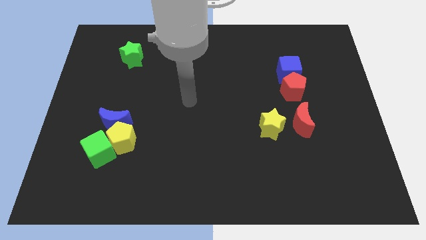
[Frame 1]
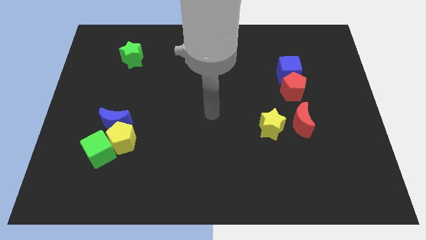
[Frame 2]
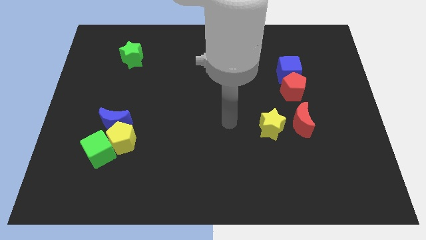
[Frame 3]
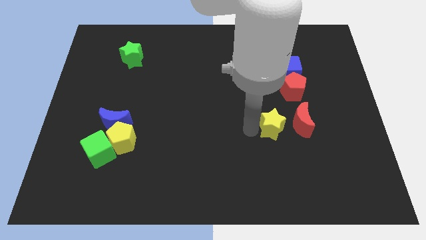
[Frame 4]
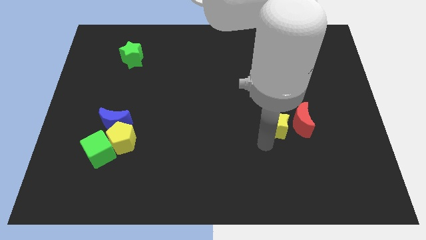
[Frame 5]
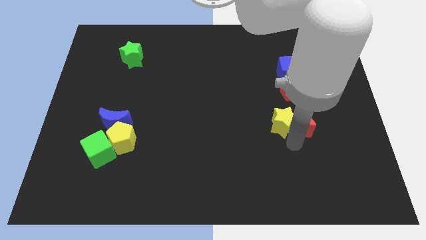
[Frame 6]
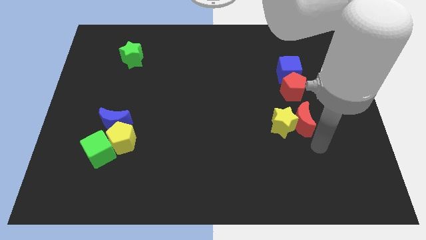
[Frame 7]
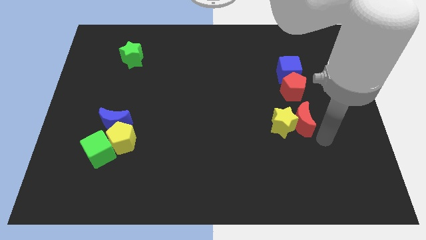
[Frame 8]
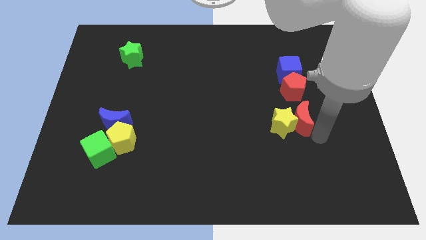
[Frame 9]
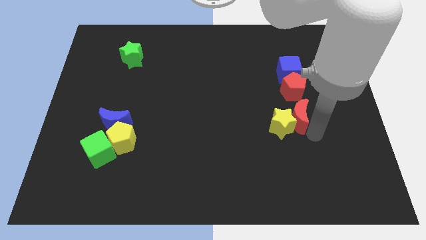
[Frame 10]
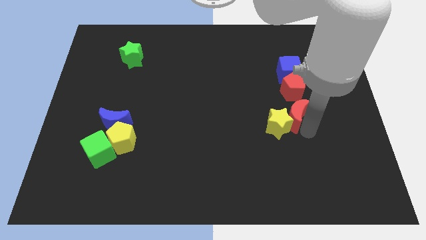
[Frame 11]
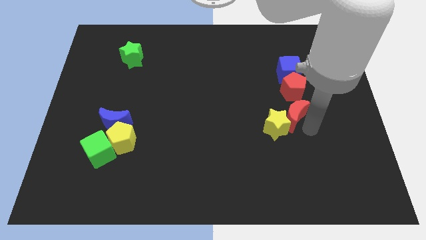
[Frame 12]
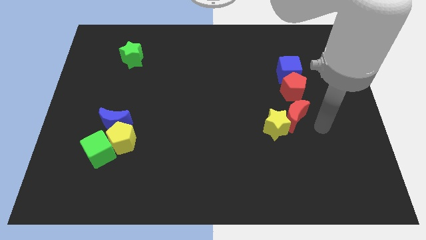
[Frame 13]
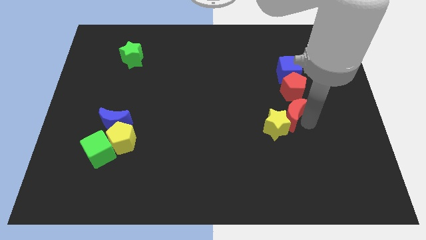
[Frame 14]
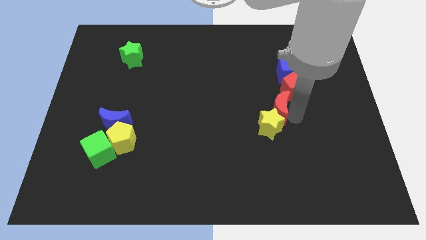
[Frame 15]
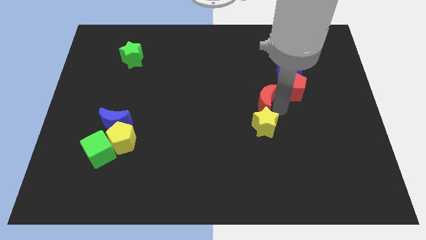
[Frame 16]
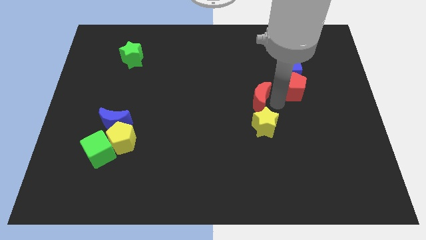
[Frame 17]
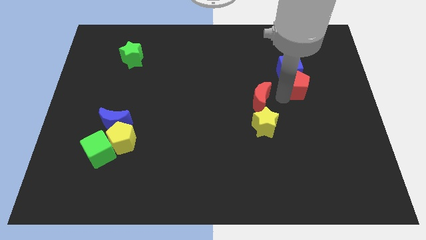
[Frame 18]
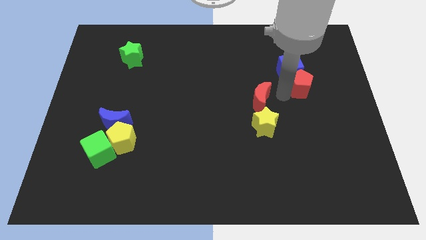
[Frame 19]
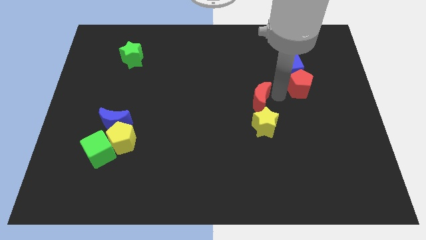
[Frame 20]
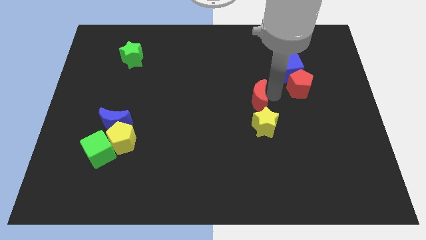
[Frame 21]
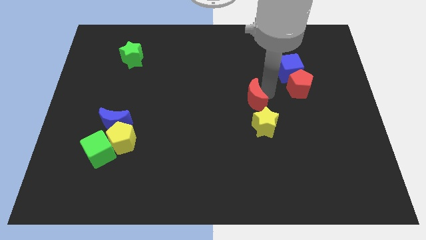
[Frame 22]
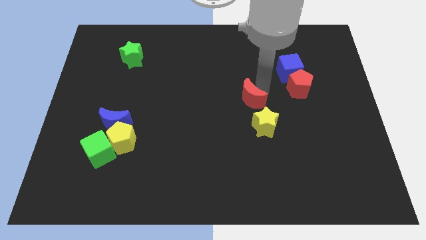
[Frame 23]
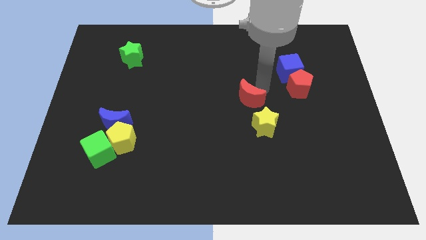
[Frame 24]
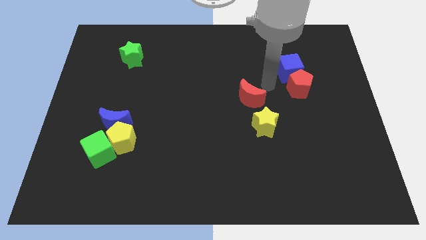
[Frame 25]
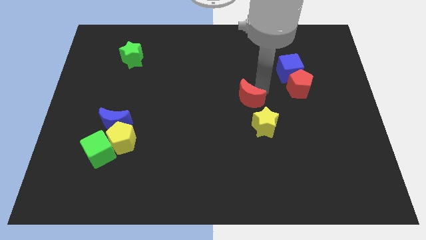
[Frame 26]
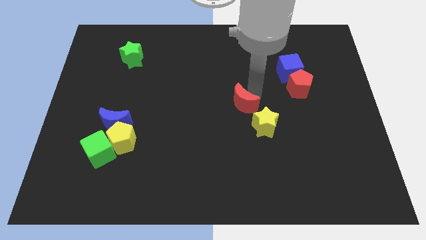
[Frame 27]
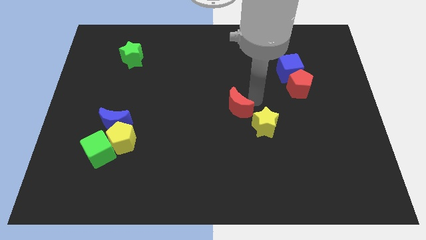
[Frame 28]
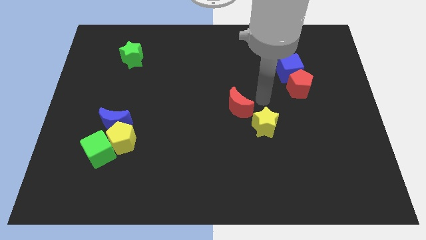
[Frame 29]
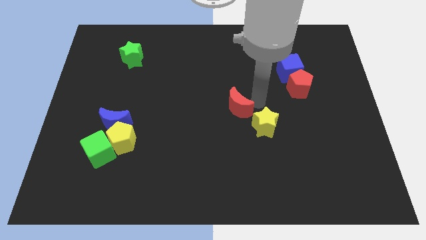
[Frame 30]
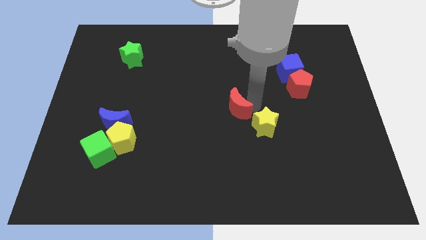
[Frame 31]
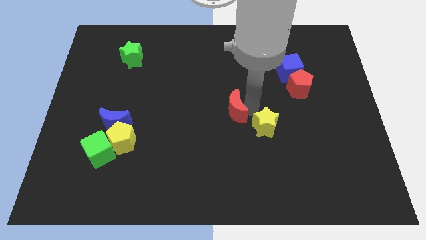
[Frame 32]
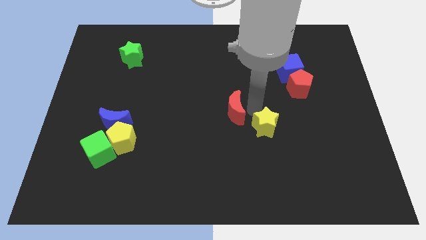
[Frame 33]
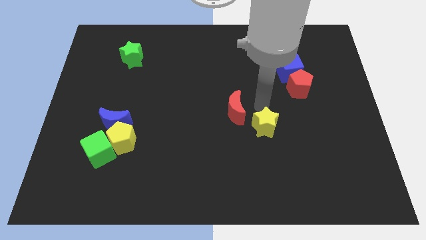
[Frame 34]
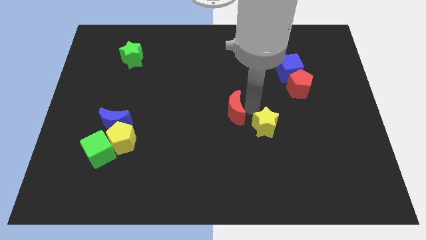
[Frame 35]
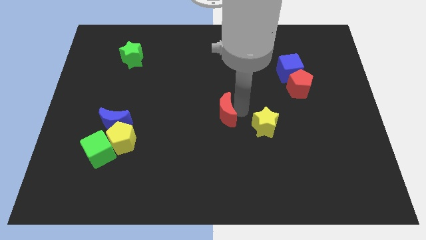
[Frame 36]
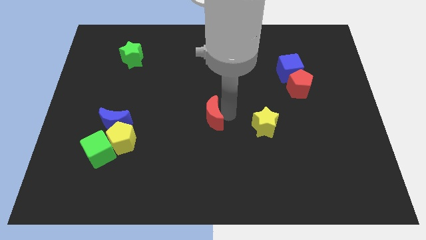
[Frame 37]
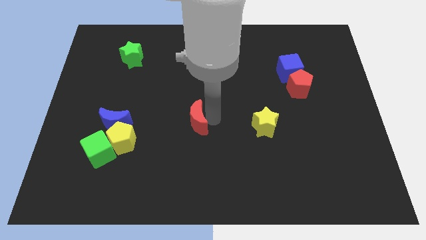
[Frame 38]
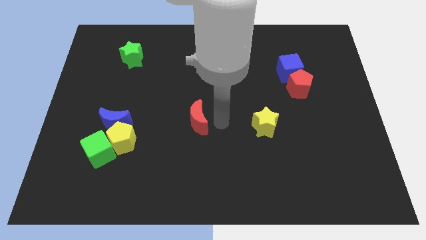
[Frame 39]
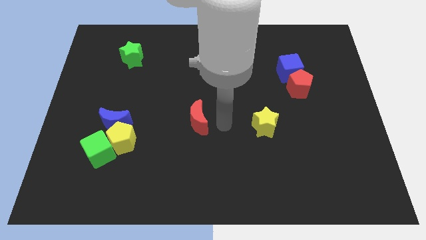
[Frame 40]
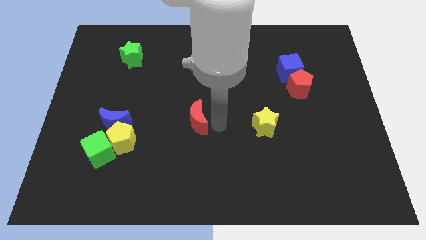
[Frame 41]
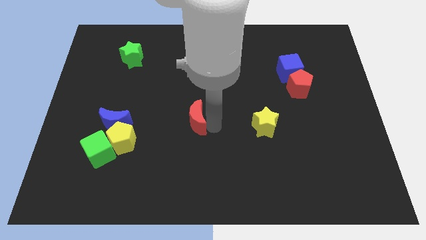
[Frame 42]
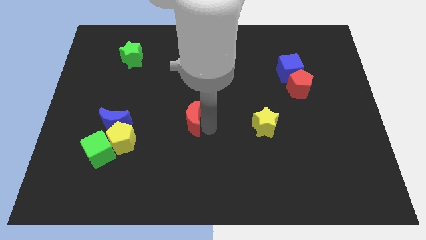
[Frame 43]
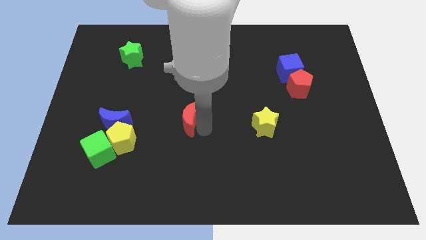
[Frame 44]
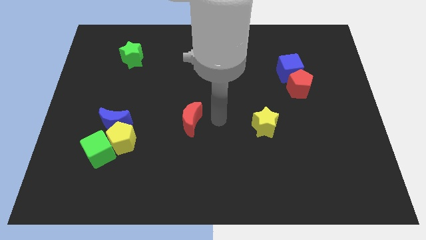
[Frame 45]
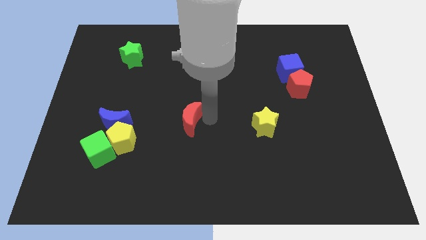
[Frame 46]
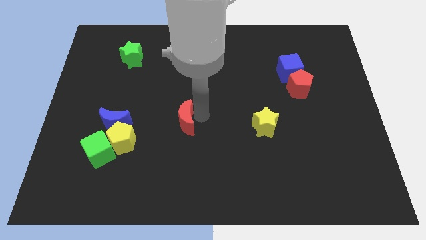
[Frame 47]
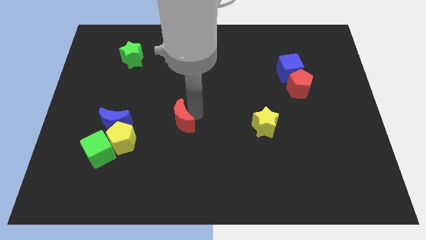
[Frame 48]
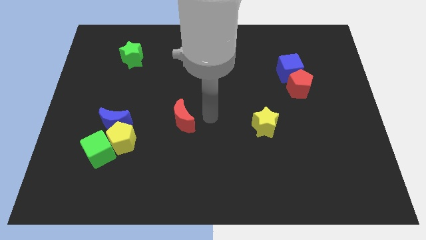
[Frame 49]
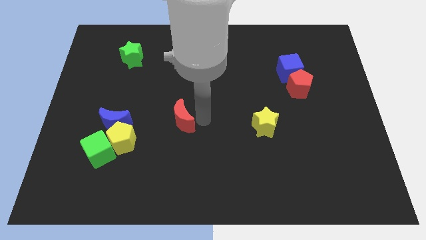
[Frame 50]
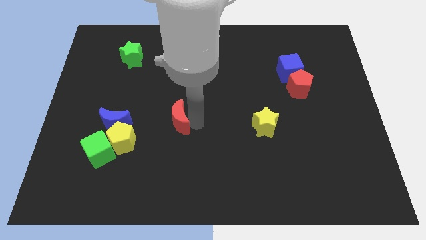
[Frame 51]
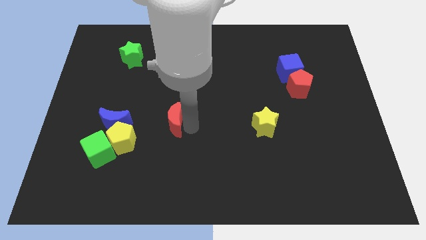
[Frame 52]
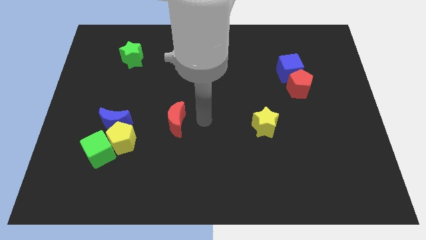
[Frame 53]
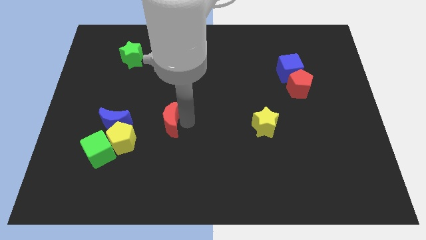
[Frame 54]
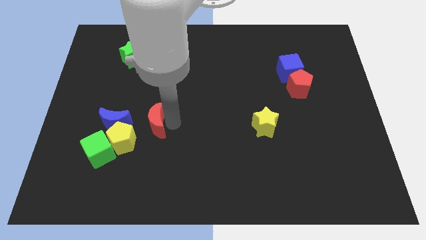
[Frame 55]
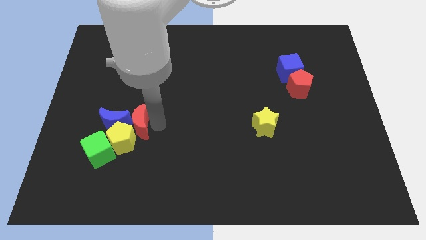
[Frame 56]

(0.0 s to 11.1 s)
push the red moon next to the blue moon

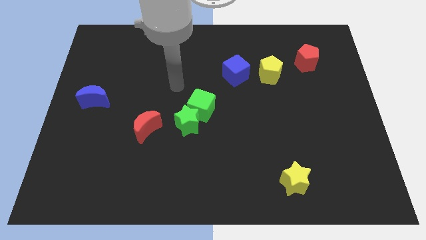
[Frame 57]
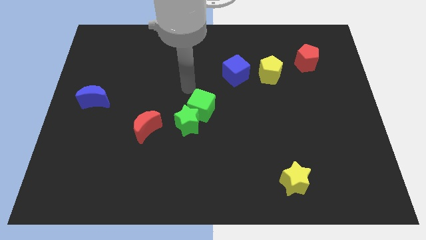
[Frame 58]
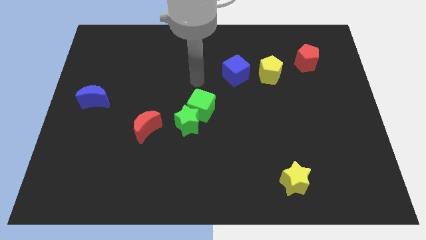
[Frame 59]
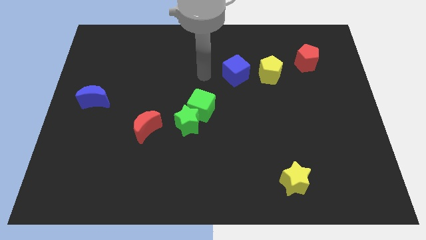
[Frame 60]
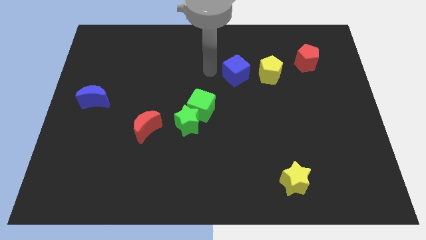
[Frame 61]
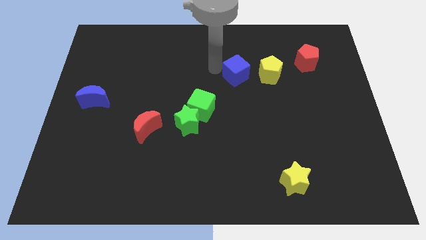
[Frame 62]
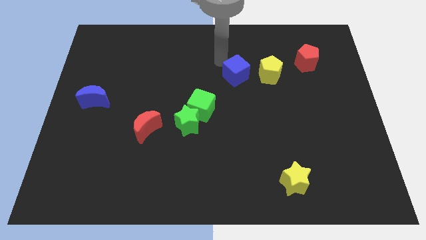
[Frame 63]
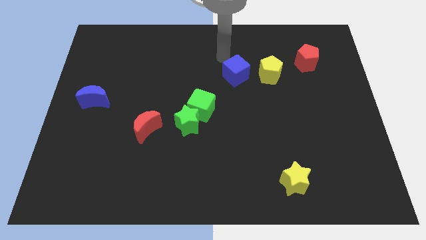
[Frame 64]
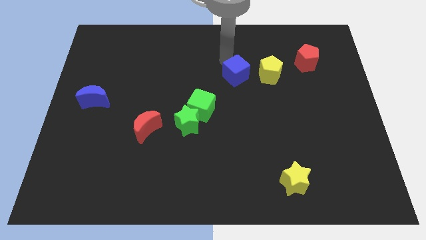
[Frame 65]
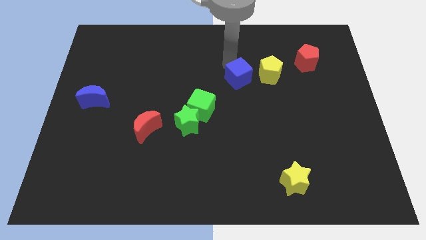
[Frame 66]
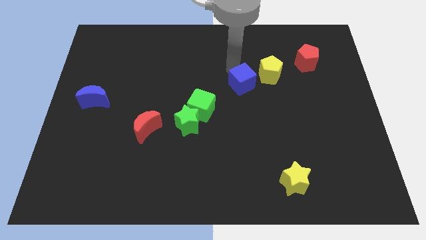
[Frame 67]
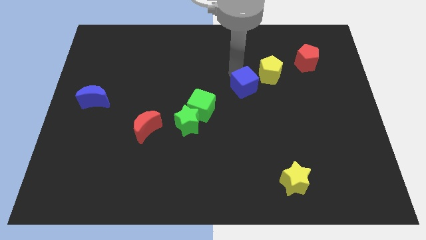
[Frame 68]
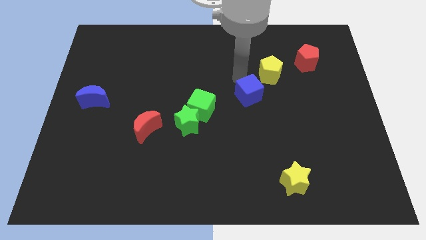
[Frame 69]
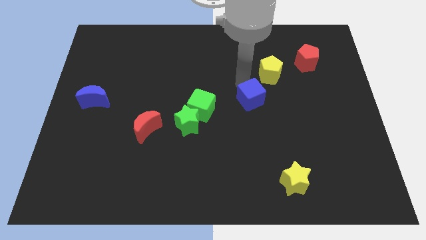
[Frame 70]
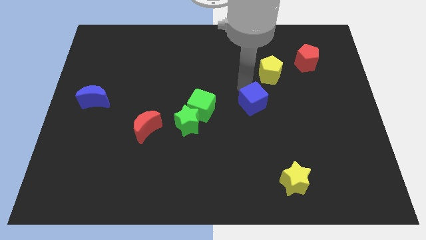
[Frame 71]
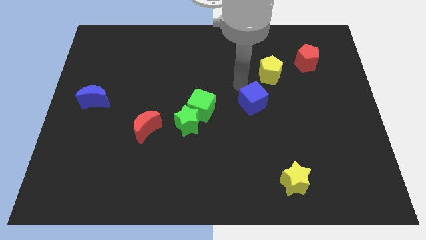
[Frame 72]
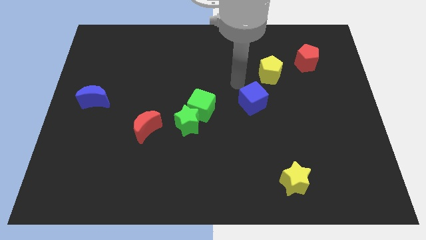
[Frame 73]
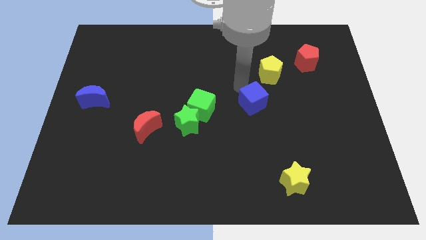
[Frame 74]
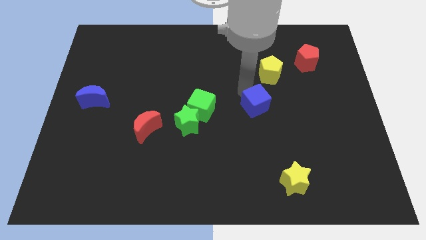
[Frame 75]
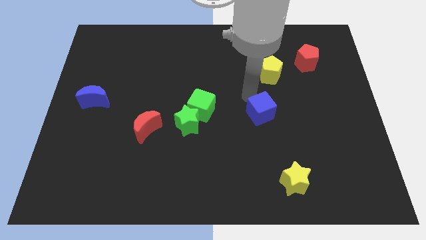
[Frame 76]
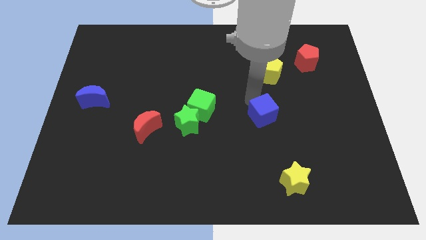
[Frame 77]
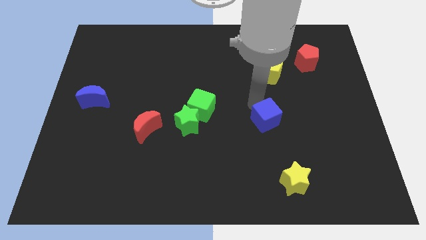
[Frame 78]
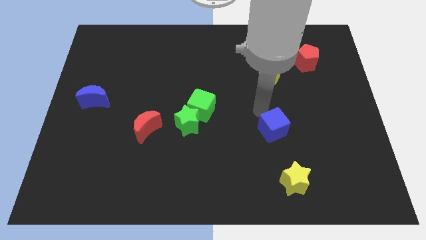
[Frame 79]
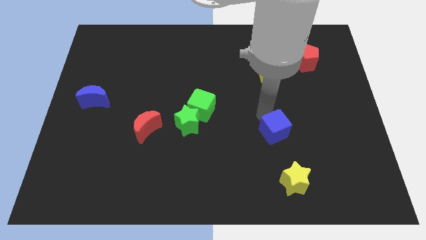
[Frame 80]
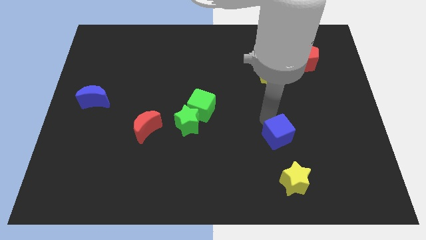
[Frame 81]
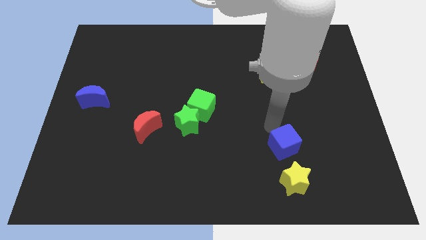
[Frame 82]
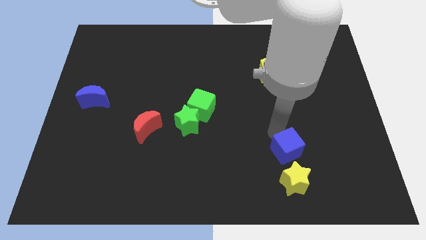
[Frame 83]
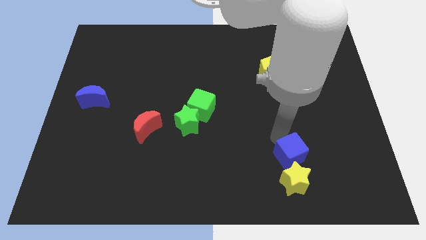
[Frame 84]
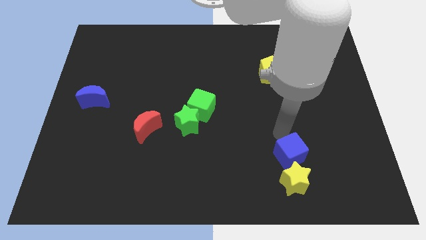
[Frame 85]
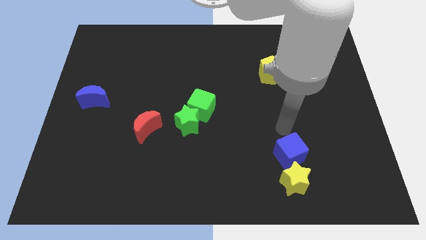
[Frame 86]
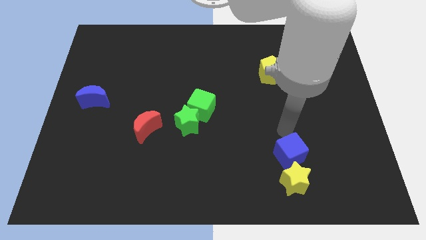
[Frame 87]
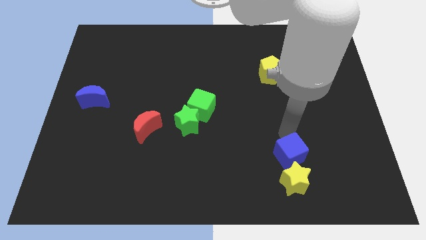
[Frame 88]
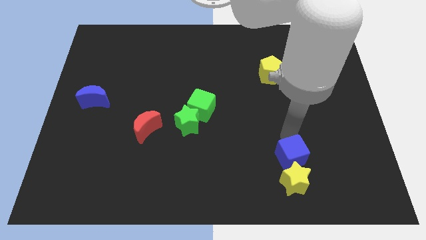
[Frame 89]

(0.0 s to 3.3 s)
put the blue cube to the yellow star
